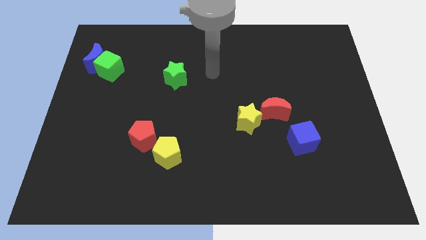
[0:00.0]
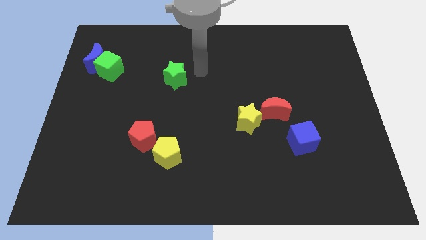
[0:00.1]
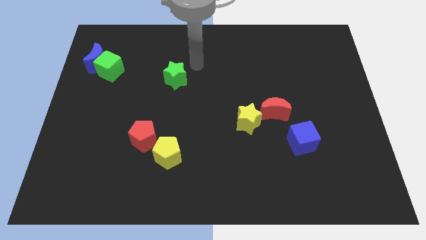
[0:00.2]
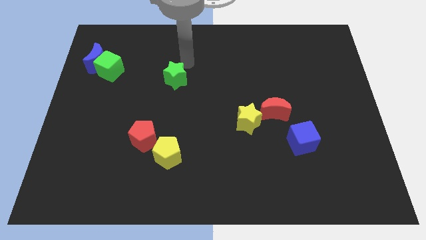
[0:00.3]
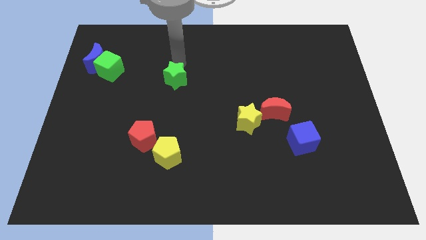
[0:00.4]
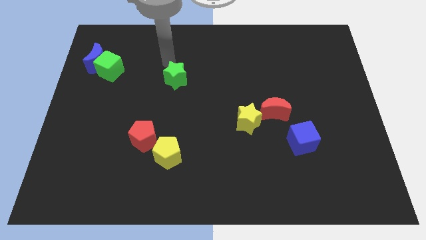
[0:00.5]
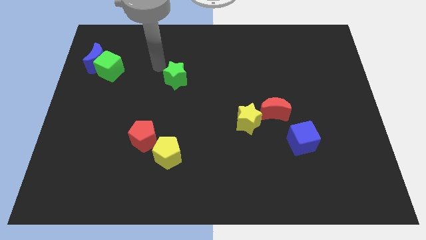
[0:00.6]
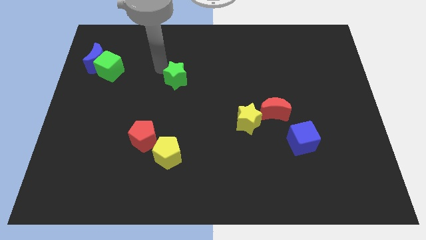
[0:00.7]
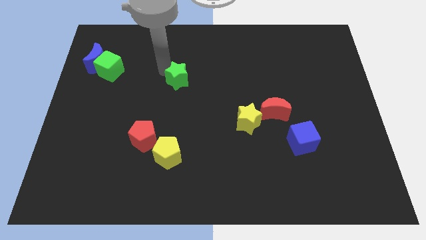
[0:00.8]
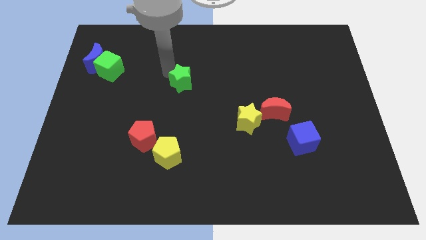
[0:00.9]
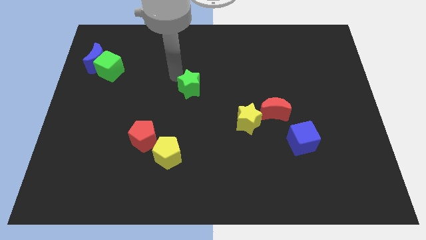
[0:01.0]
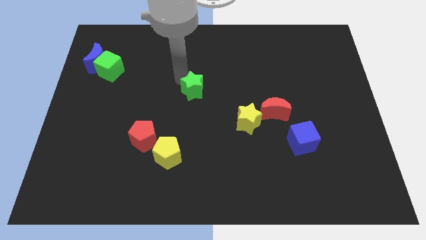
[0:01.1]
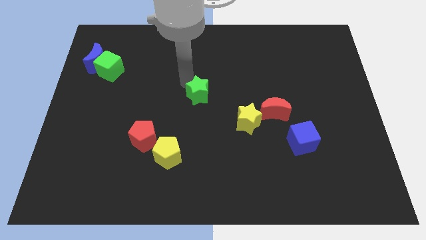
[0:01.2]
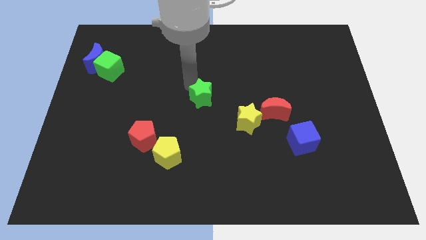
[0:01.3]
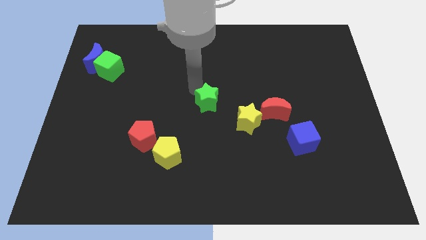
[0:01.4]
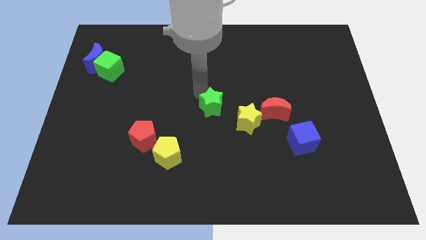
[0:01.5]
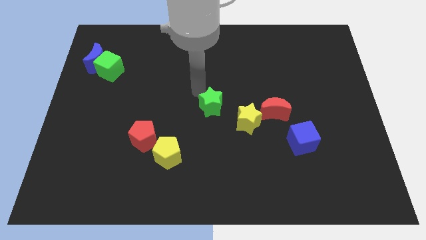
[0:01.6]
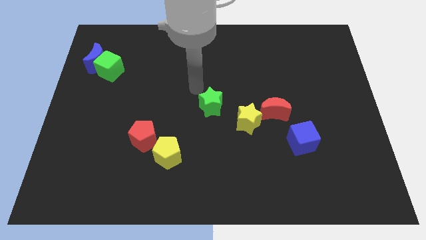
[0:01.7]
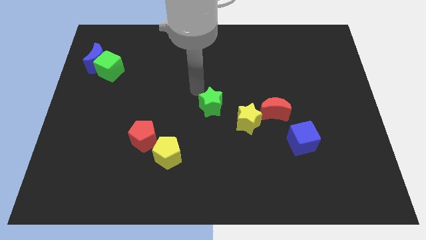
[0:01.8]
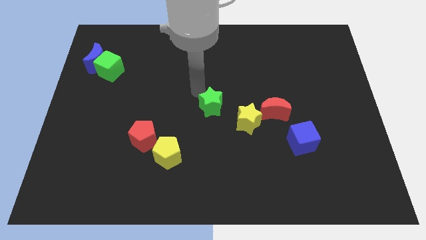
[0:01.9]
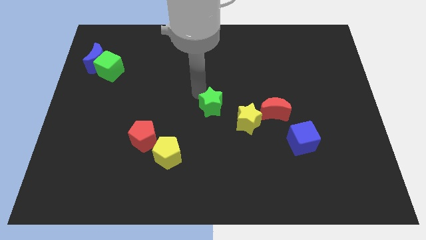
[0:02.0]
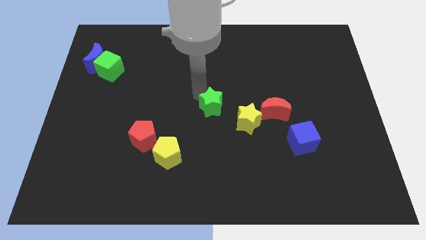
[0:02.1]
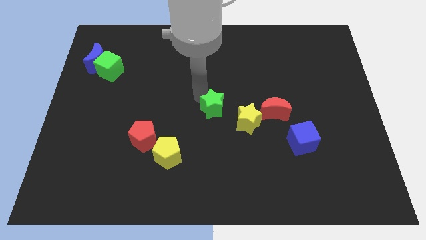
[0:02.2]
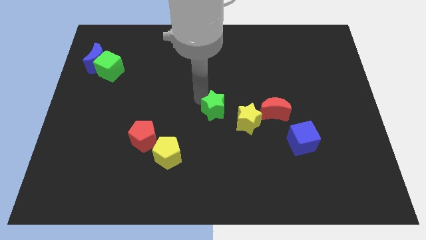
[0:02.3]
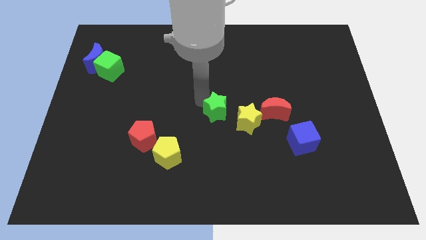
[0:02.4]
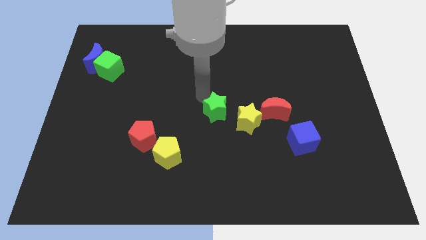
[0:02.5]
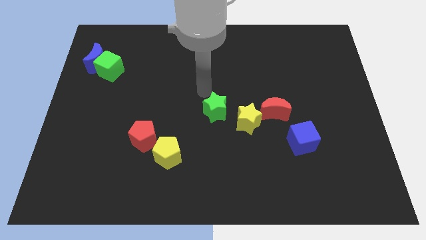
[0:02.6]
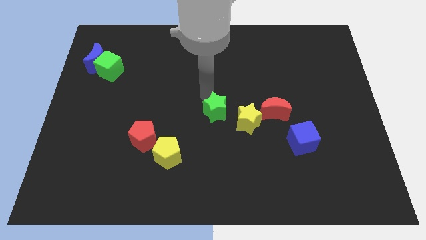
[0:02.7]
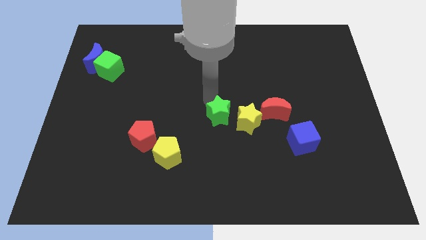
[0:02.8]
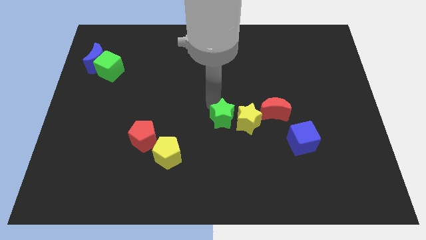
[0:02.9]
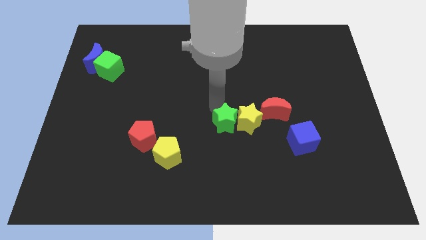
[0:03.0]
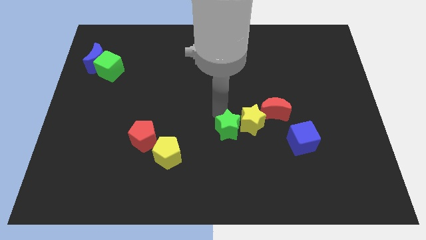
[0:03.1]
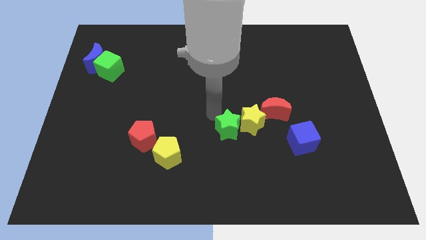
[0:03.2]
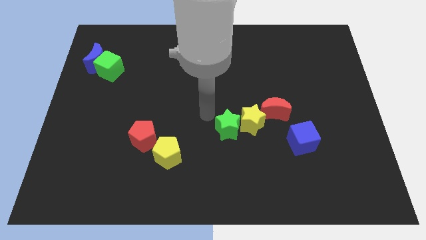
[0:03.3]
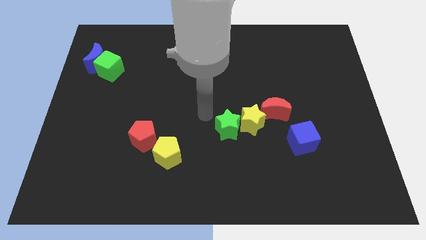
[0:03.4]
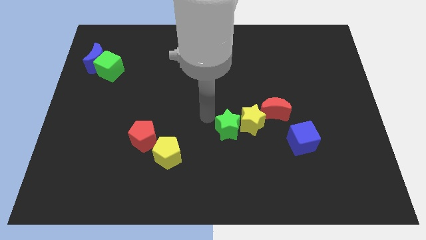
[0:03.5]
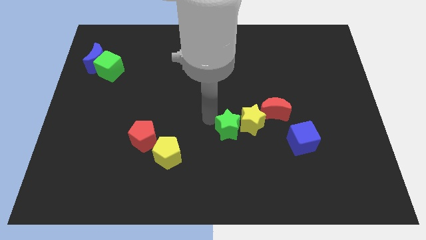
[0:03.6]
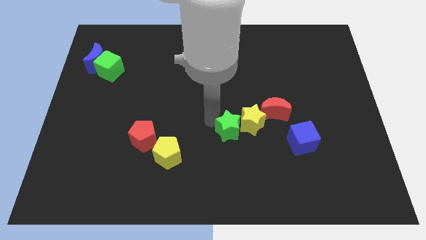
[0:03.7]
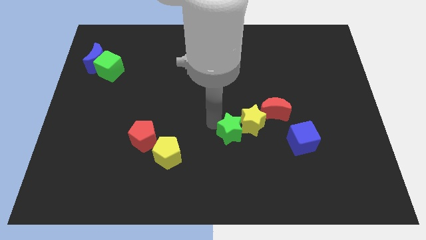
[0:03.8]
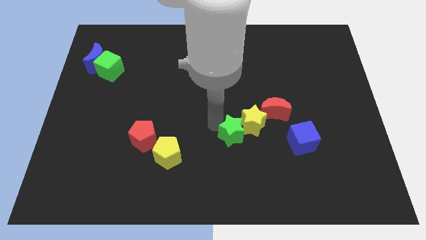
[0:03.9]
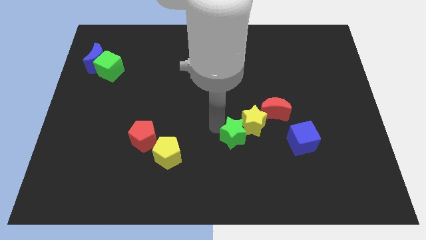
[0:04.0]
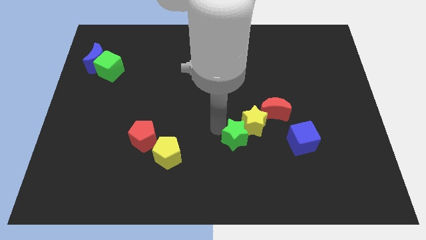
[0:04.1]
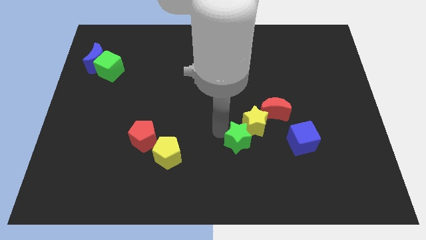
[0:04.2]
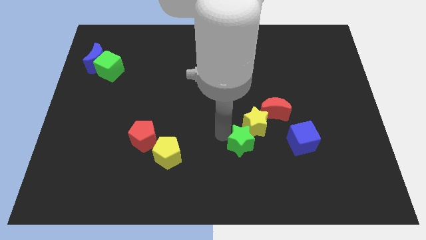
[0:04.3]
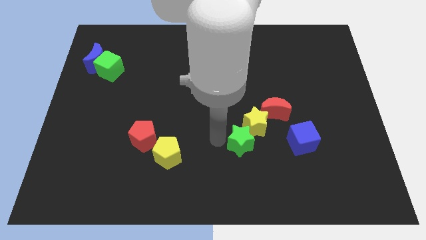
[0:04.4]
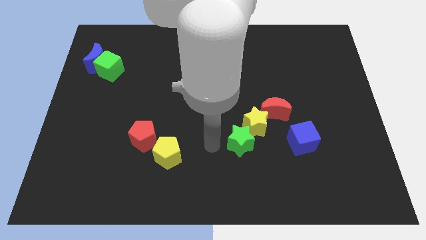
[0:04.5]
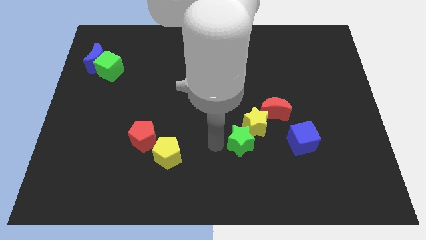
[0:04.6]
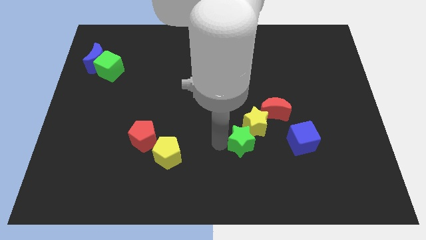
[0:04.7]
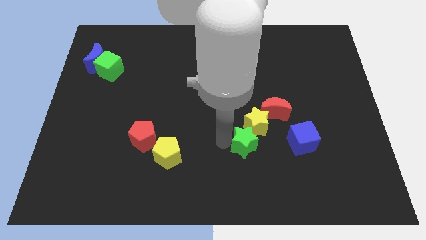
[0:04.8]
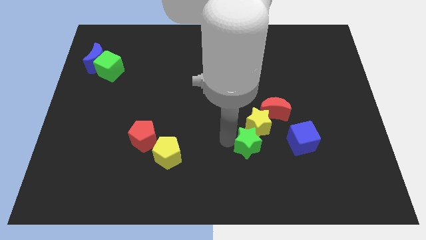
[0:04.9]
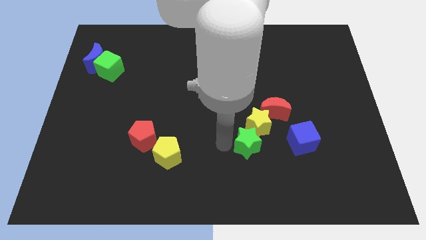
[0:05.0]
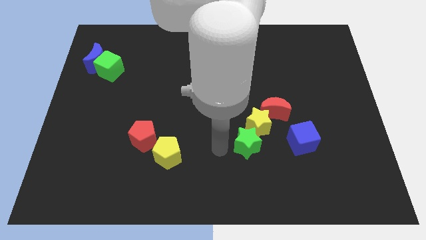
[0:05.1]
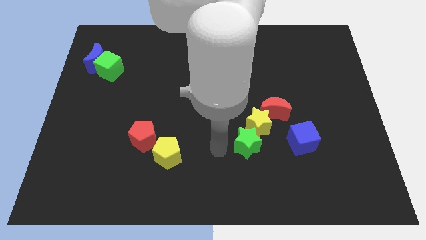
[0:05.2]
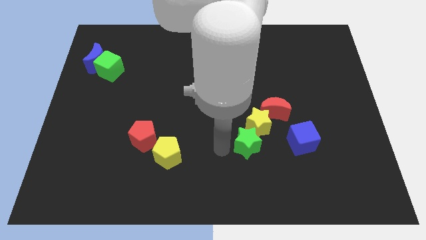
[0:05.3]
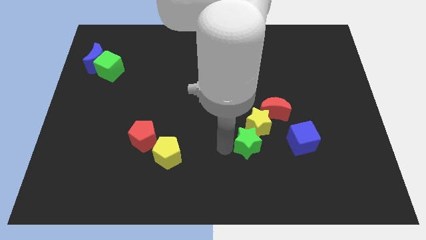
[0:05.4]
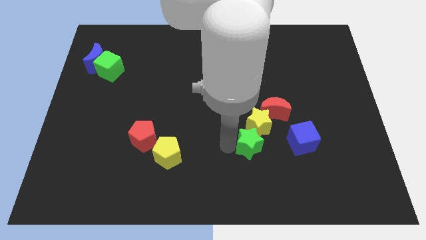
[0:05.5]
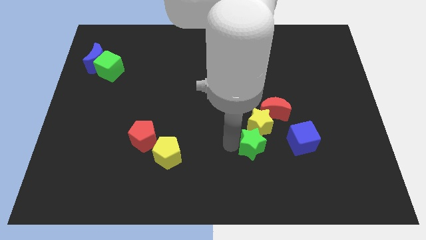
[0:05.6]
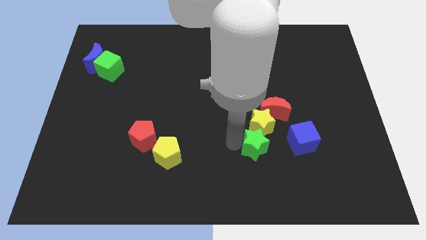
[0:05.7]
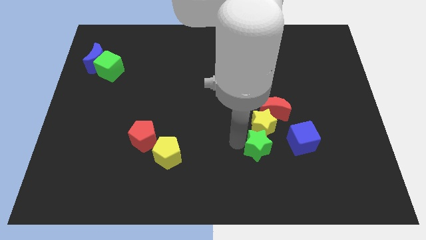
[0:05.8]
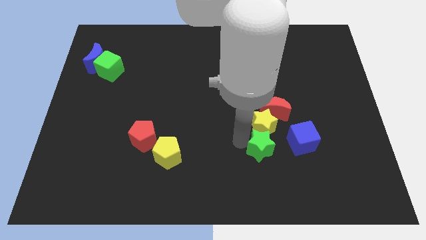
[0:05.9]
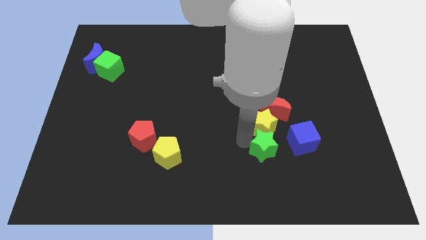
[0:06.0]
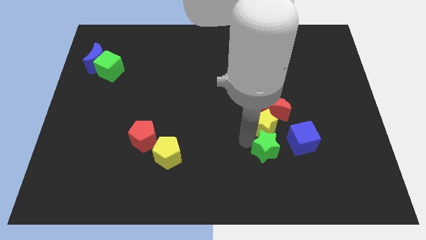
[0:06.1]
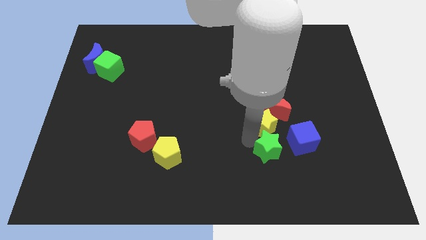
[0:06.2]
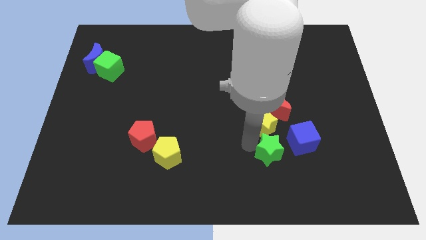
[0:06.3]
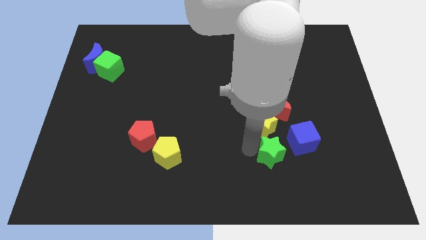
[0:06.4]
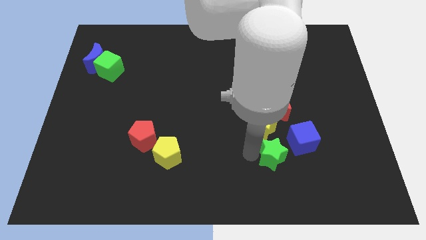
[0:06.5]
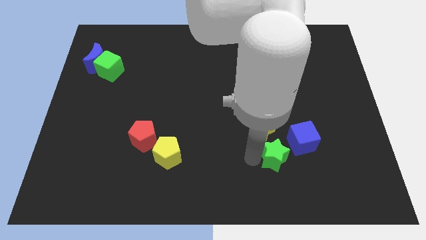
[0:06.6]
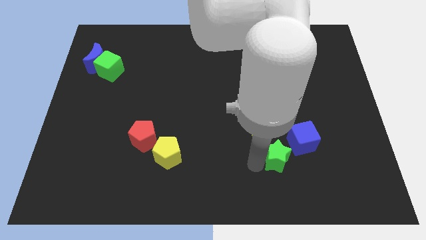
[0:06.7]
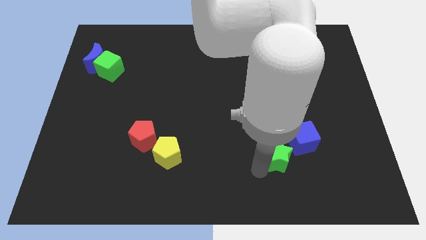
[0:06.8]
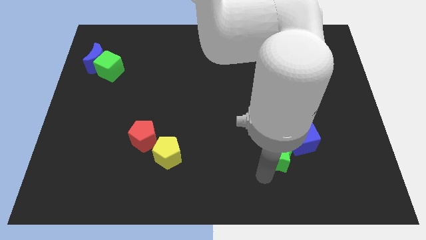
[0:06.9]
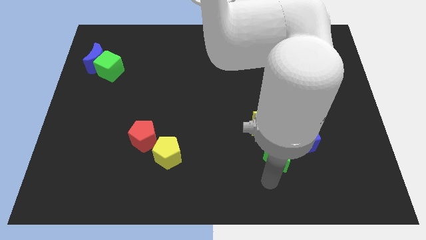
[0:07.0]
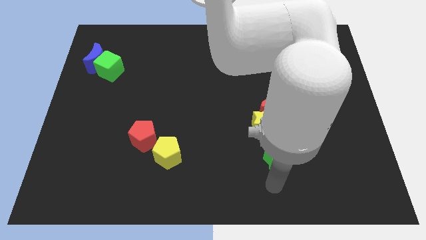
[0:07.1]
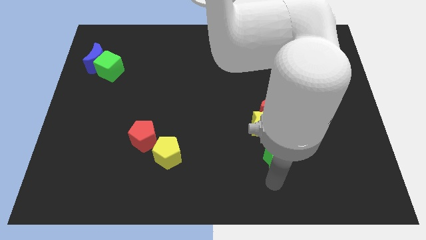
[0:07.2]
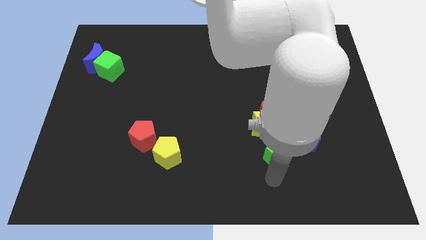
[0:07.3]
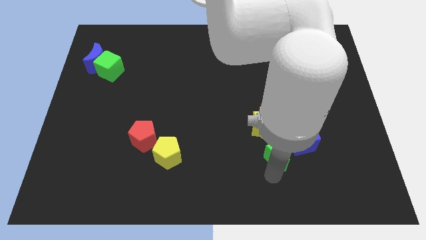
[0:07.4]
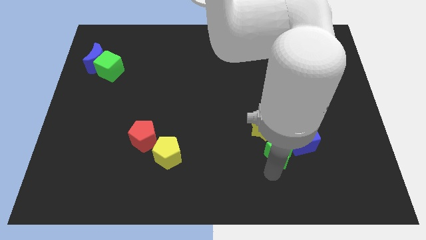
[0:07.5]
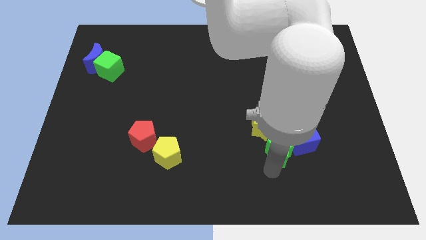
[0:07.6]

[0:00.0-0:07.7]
slide the green star close to the blue cube
